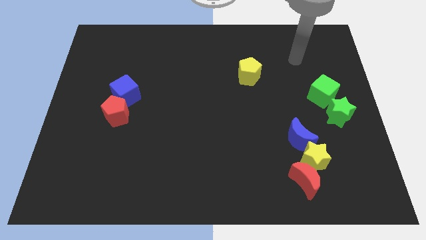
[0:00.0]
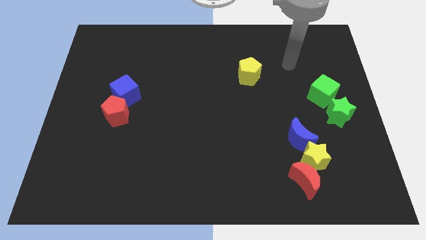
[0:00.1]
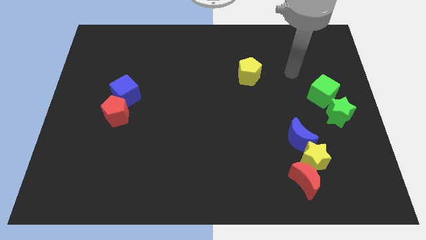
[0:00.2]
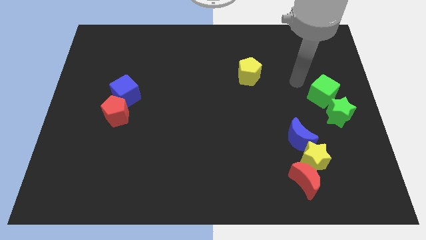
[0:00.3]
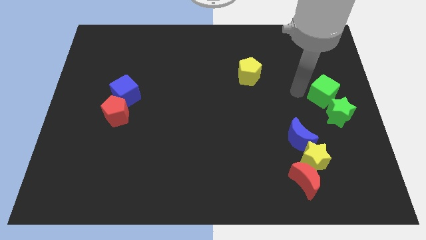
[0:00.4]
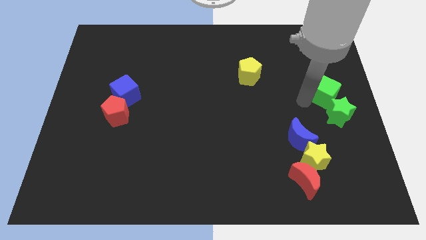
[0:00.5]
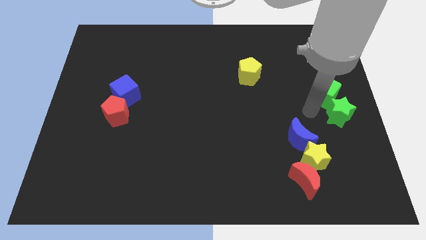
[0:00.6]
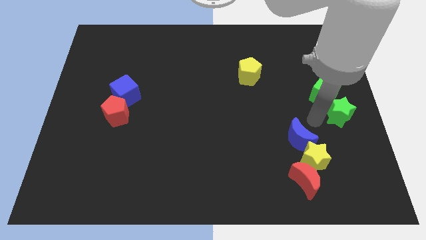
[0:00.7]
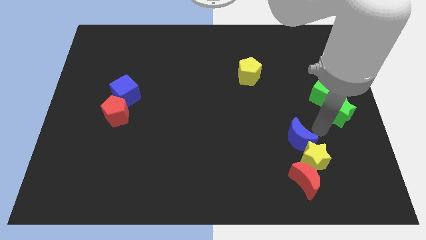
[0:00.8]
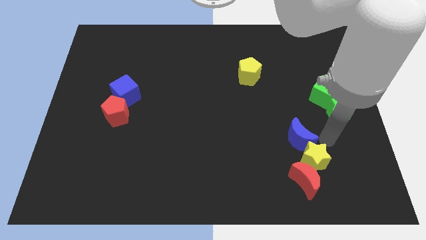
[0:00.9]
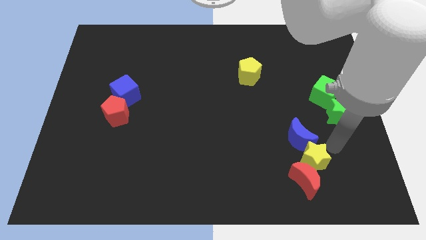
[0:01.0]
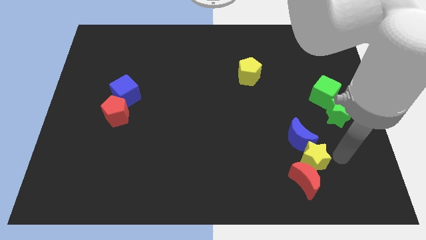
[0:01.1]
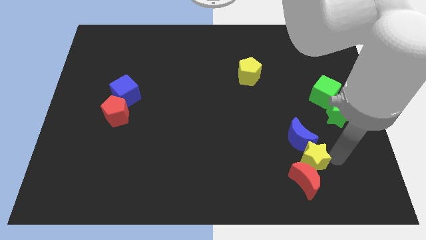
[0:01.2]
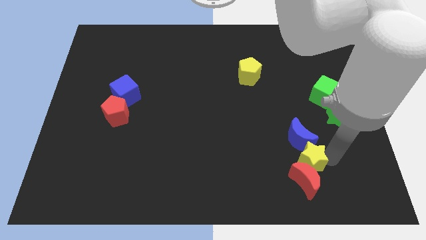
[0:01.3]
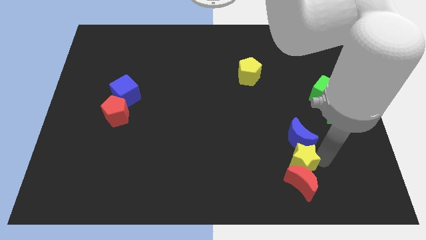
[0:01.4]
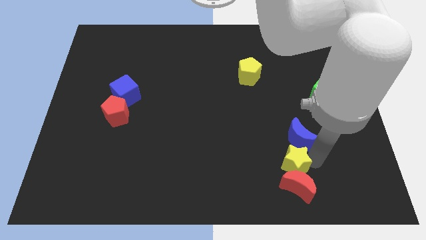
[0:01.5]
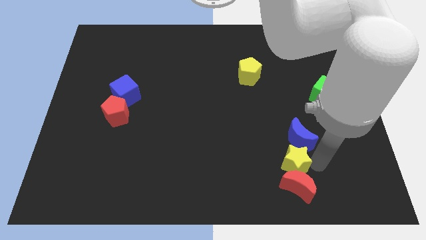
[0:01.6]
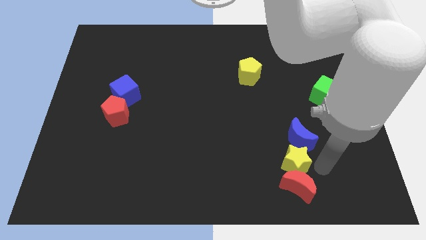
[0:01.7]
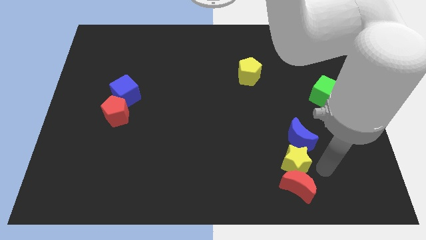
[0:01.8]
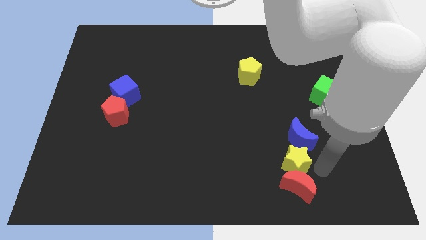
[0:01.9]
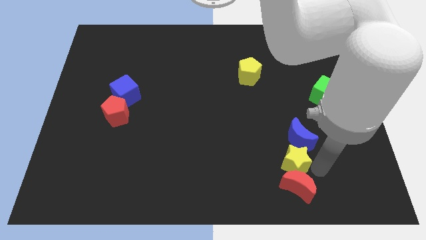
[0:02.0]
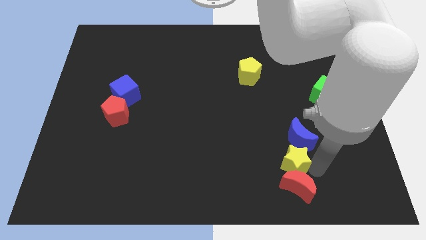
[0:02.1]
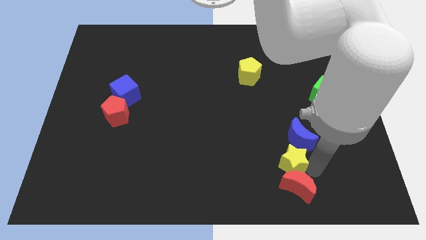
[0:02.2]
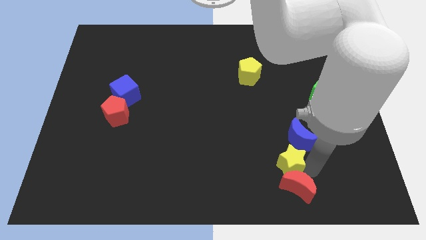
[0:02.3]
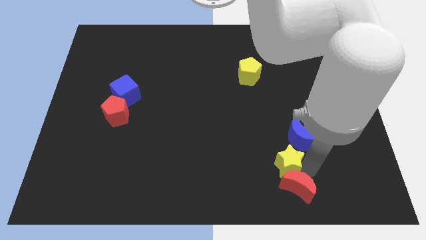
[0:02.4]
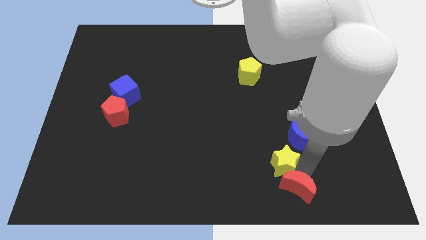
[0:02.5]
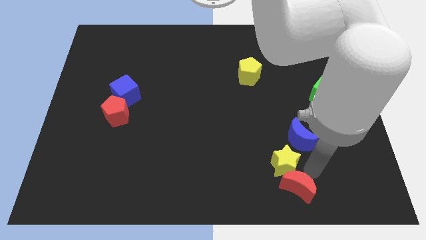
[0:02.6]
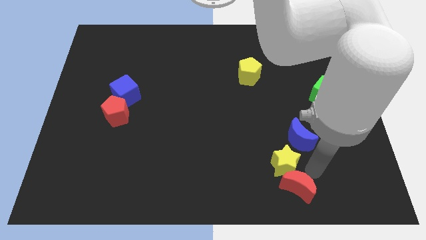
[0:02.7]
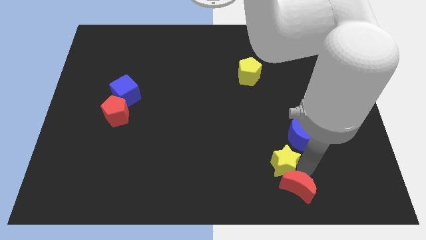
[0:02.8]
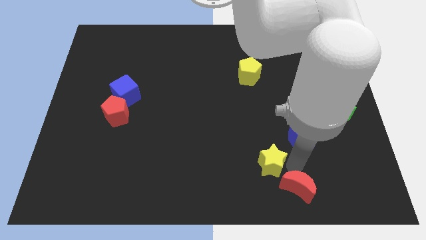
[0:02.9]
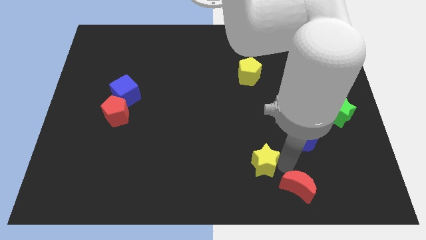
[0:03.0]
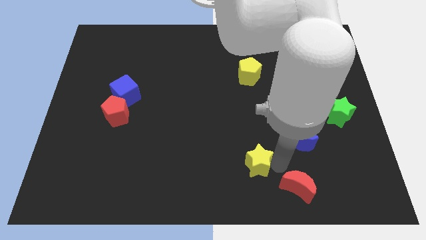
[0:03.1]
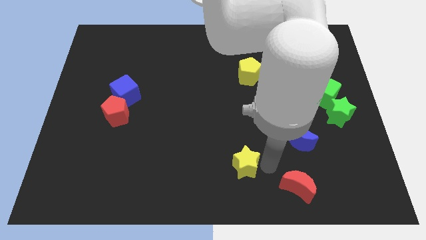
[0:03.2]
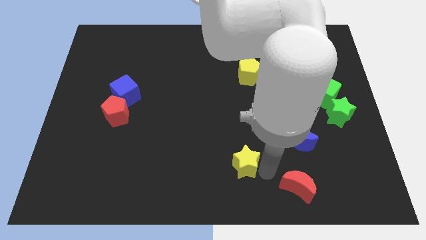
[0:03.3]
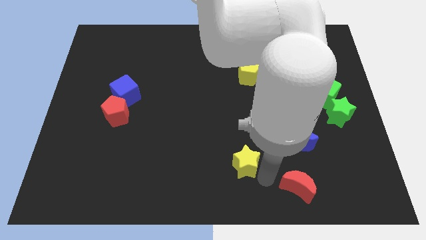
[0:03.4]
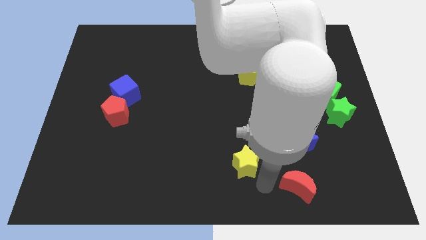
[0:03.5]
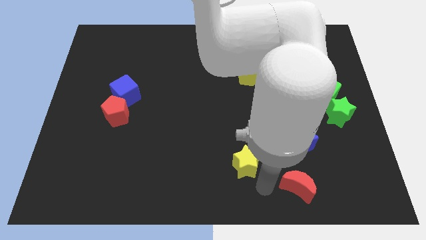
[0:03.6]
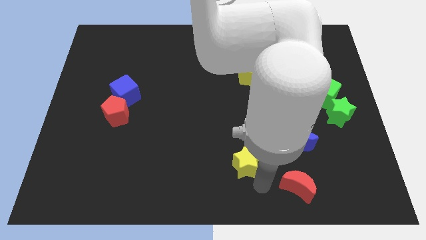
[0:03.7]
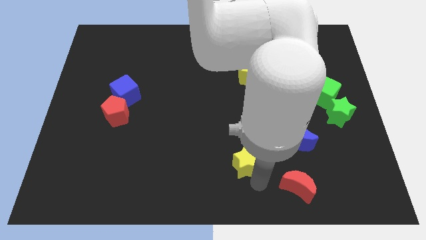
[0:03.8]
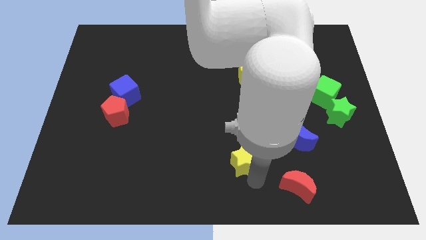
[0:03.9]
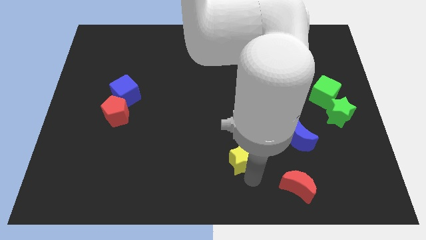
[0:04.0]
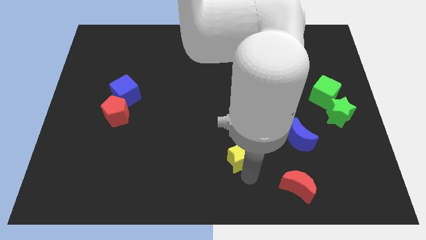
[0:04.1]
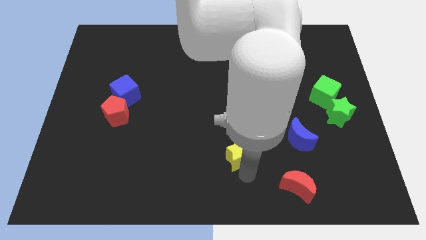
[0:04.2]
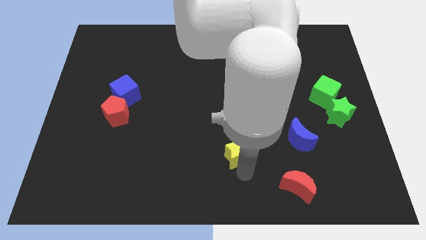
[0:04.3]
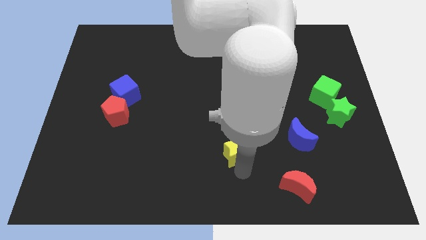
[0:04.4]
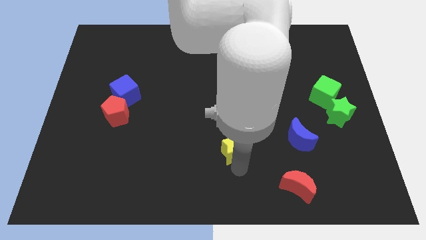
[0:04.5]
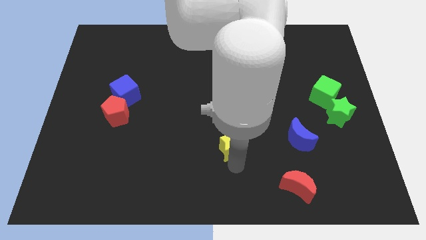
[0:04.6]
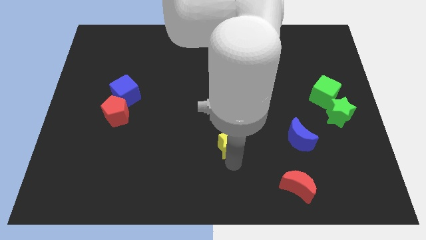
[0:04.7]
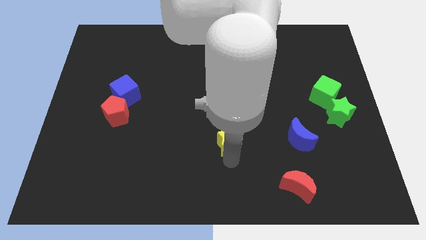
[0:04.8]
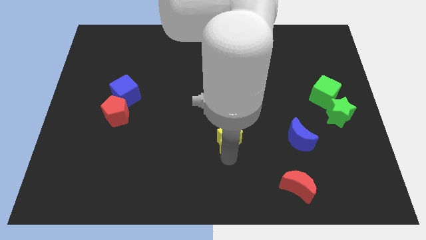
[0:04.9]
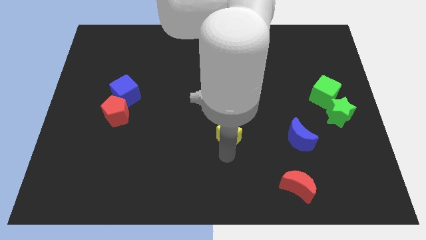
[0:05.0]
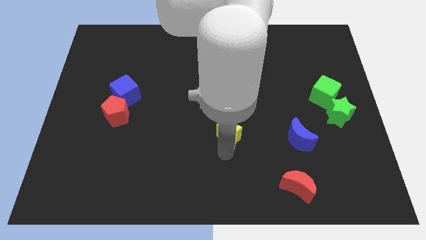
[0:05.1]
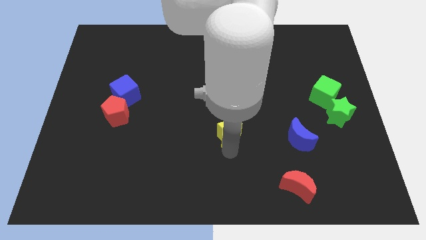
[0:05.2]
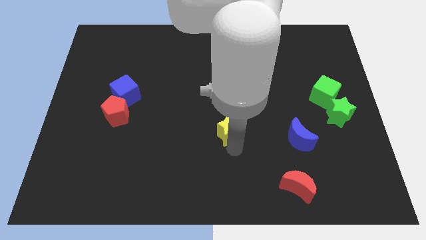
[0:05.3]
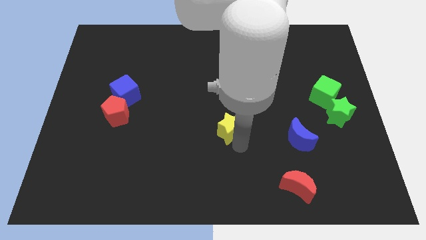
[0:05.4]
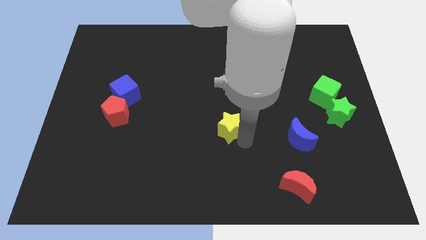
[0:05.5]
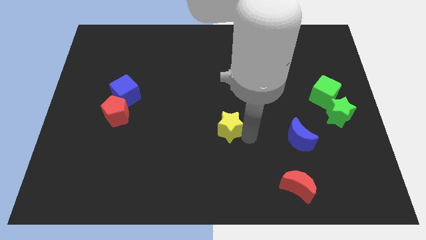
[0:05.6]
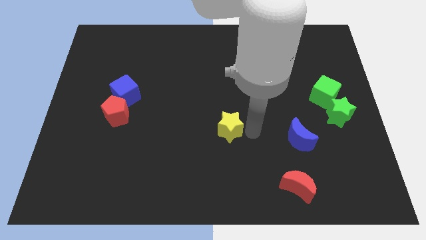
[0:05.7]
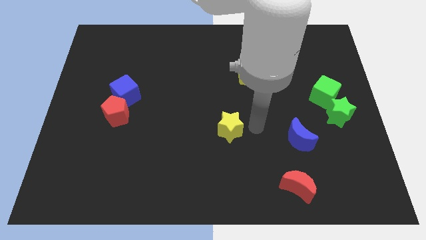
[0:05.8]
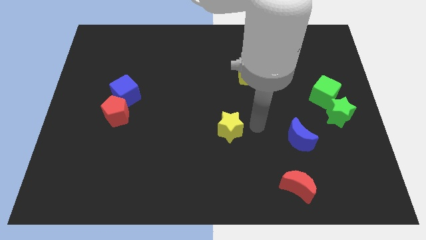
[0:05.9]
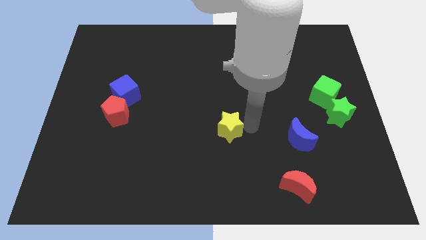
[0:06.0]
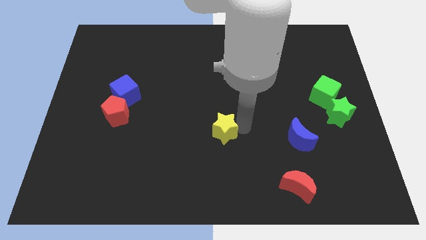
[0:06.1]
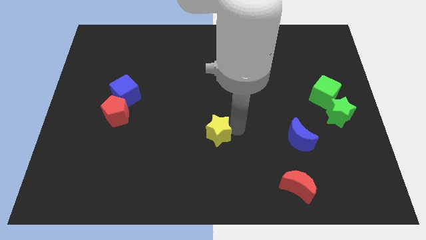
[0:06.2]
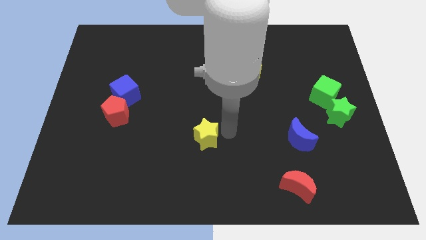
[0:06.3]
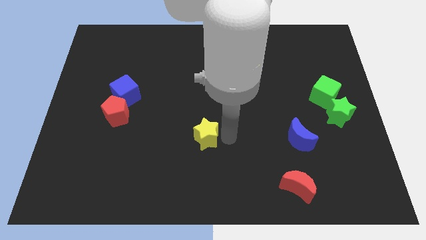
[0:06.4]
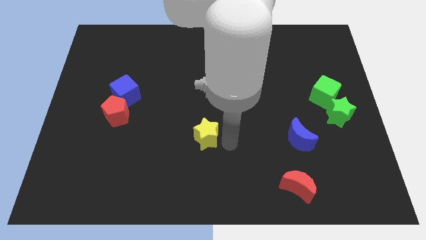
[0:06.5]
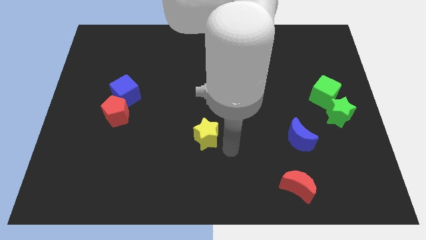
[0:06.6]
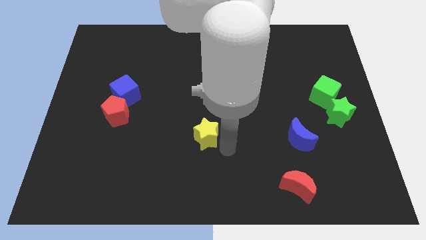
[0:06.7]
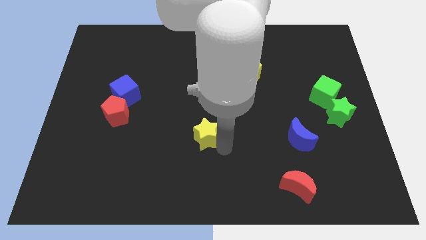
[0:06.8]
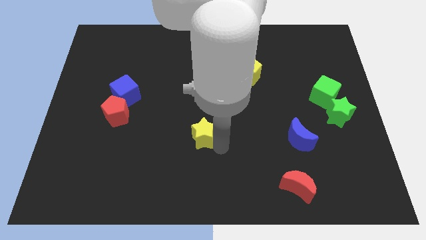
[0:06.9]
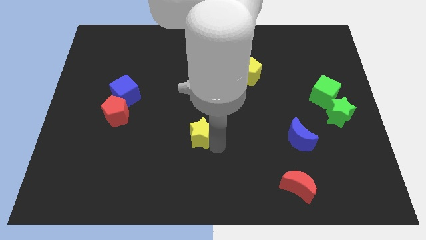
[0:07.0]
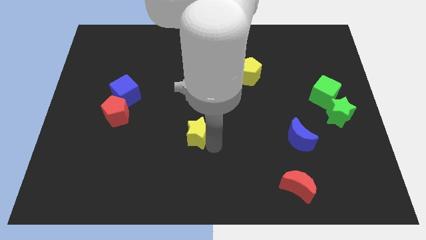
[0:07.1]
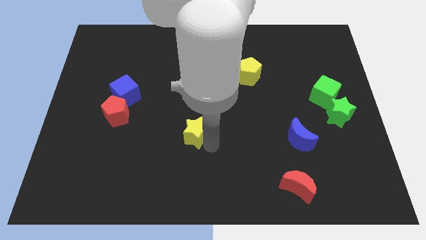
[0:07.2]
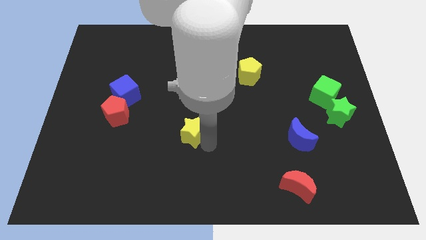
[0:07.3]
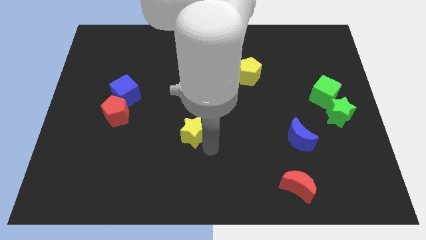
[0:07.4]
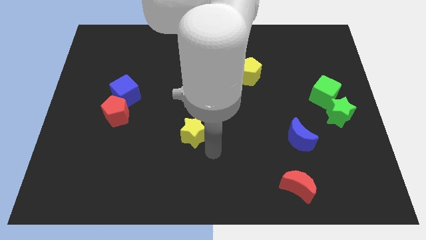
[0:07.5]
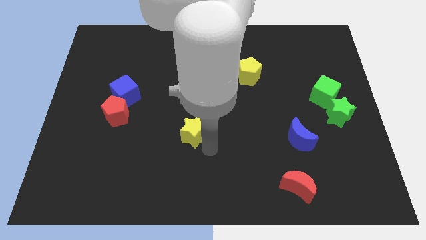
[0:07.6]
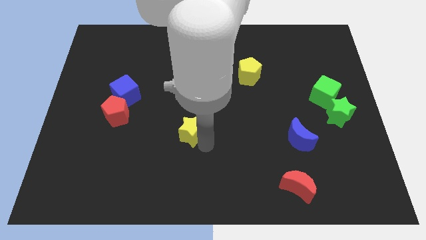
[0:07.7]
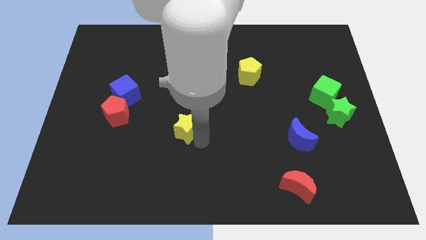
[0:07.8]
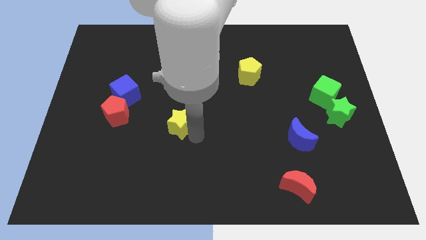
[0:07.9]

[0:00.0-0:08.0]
slide the yellow star to the right side of the red pentagon
